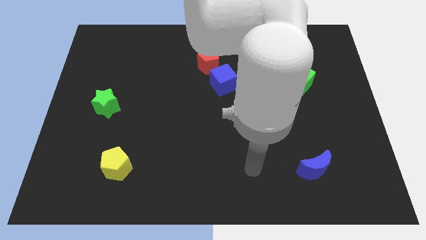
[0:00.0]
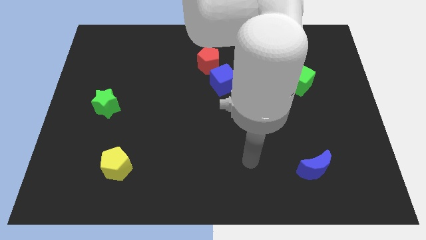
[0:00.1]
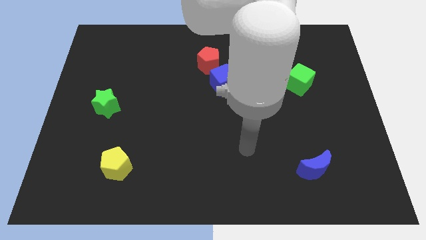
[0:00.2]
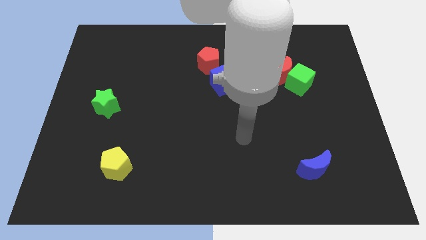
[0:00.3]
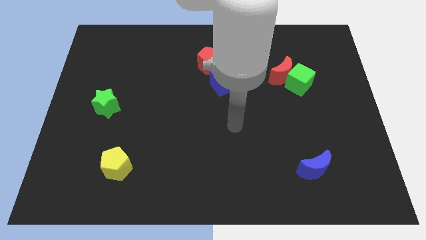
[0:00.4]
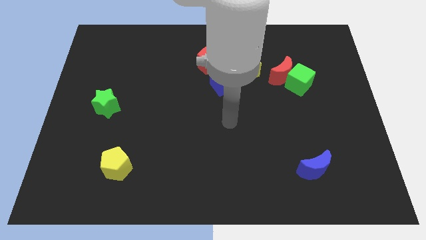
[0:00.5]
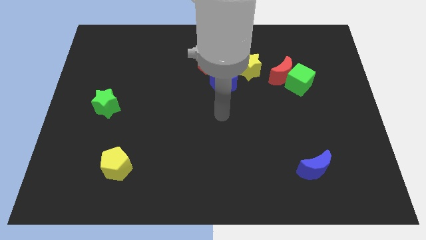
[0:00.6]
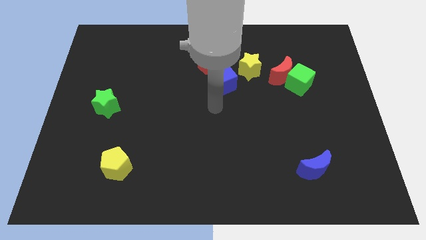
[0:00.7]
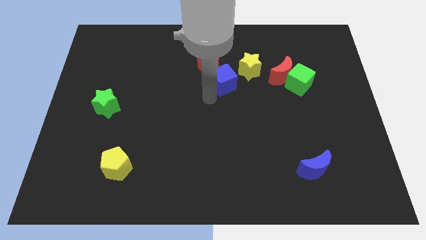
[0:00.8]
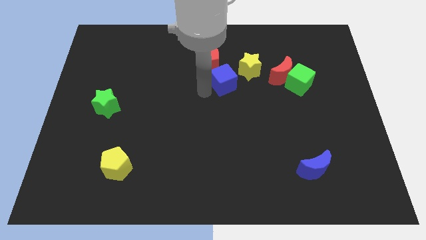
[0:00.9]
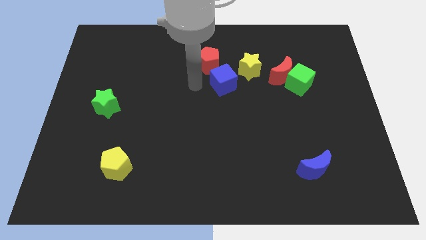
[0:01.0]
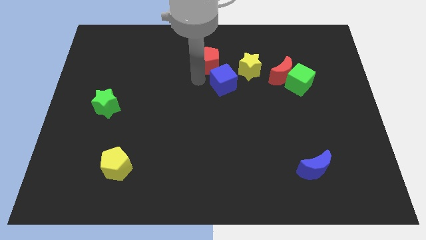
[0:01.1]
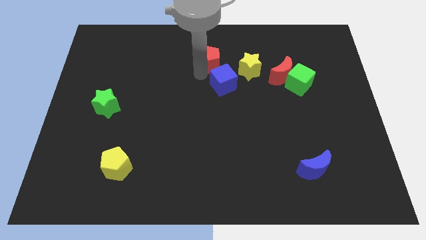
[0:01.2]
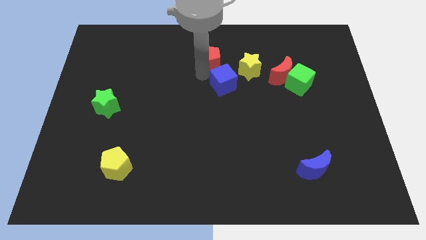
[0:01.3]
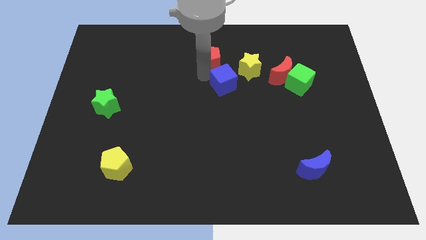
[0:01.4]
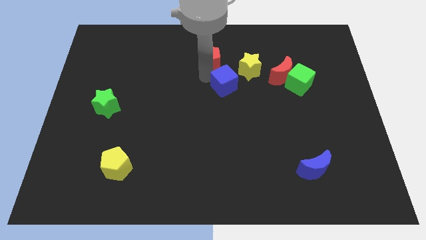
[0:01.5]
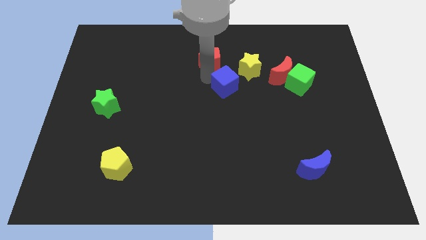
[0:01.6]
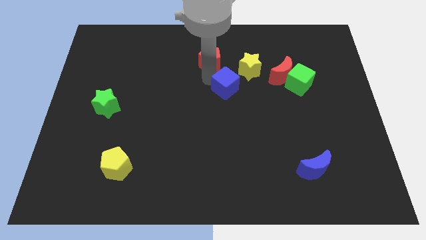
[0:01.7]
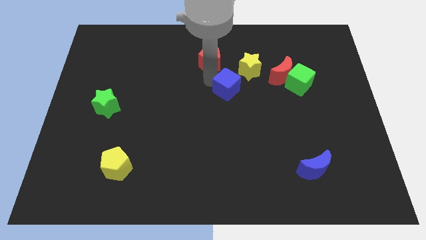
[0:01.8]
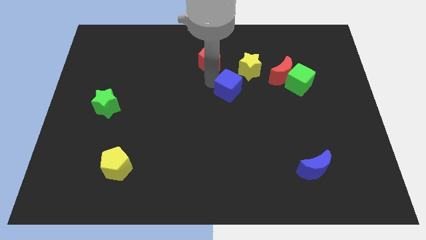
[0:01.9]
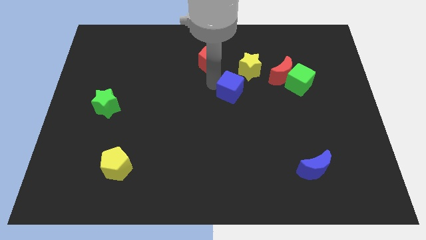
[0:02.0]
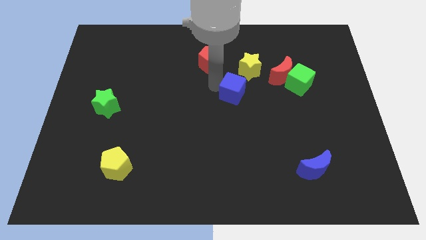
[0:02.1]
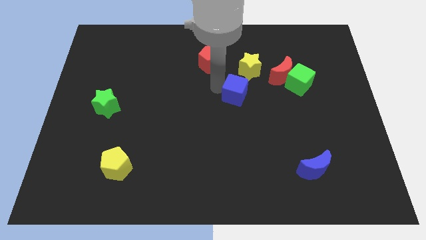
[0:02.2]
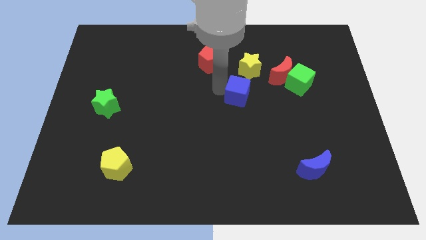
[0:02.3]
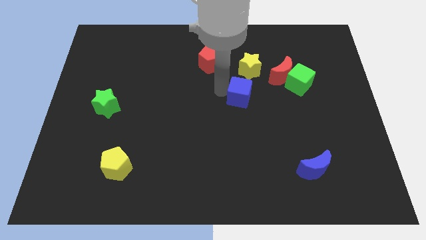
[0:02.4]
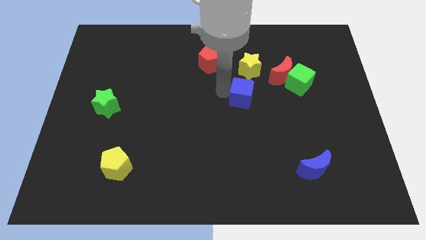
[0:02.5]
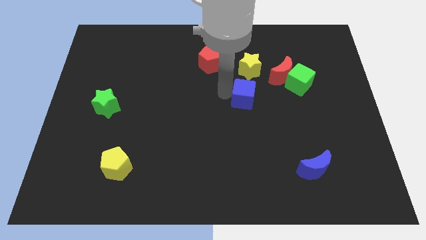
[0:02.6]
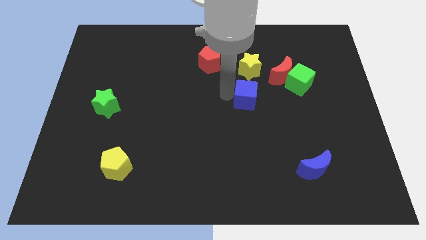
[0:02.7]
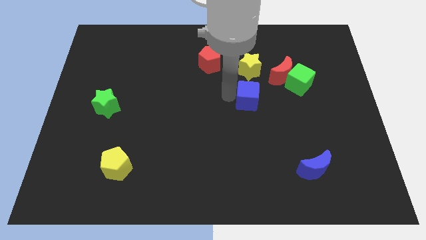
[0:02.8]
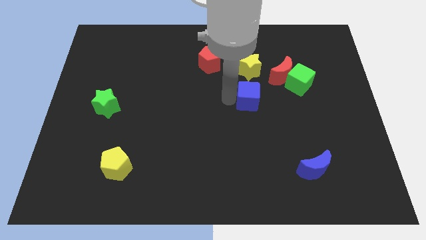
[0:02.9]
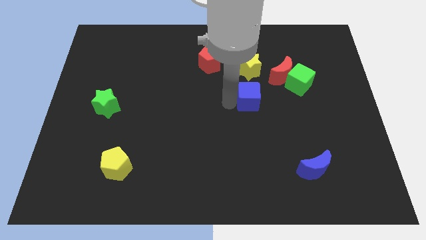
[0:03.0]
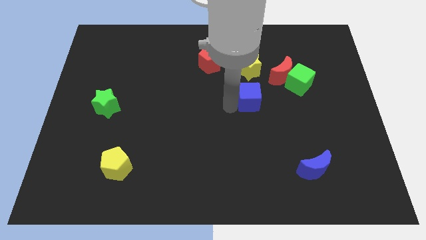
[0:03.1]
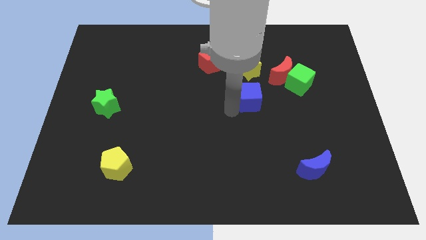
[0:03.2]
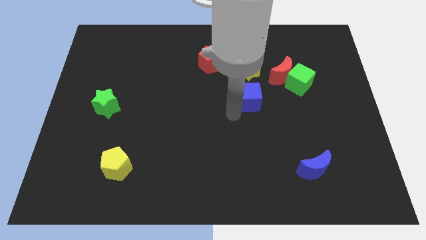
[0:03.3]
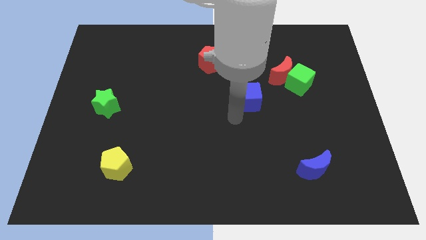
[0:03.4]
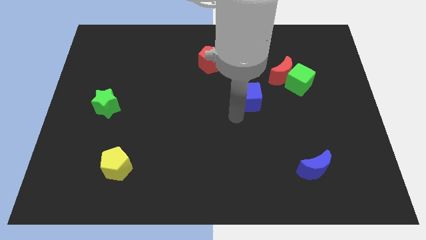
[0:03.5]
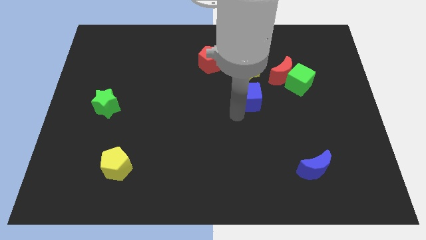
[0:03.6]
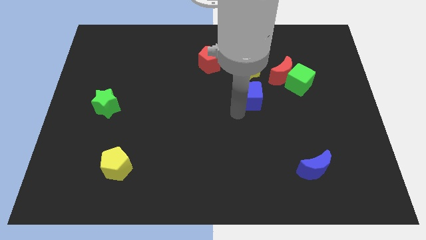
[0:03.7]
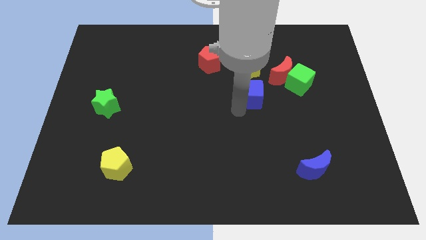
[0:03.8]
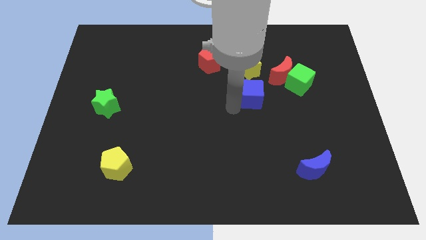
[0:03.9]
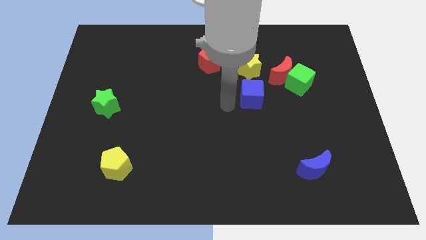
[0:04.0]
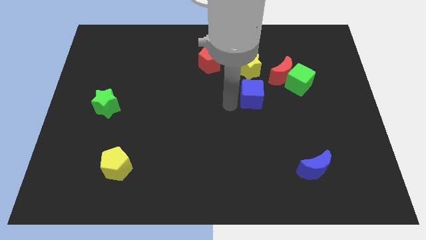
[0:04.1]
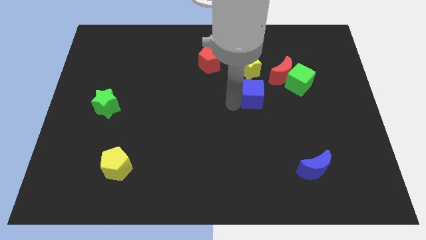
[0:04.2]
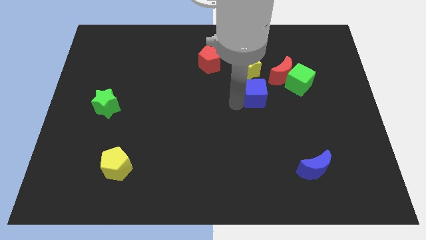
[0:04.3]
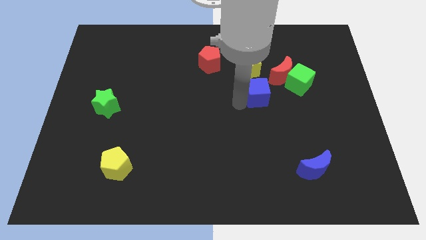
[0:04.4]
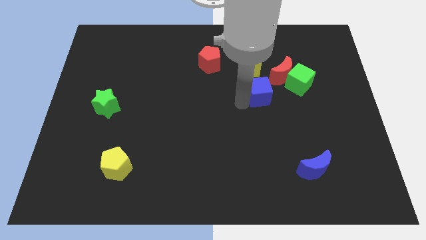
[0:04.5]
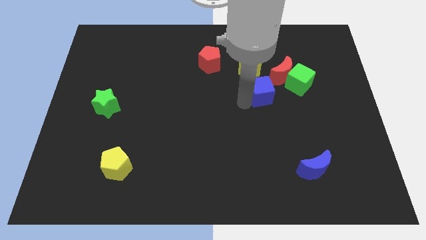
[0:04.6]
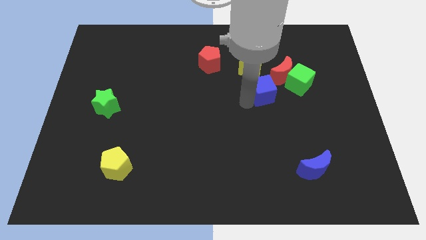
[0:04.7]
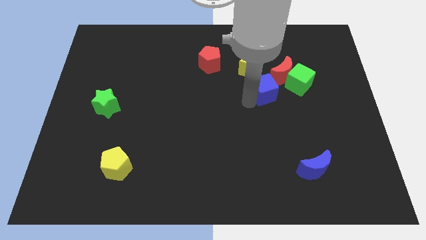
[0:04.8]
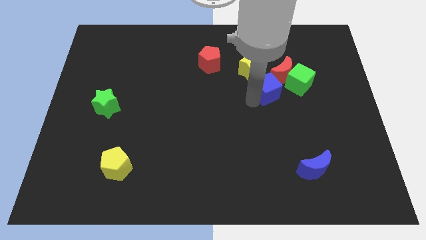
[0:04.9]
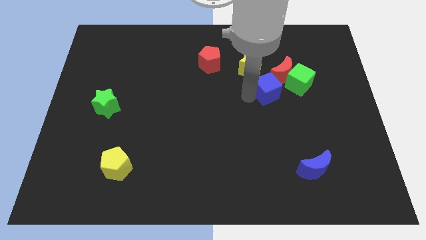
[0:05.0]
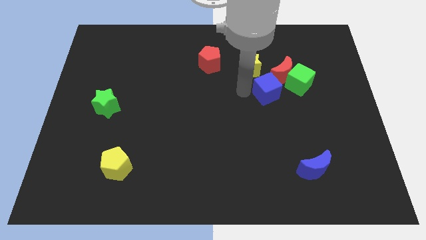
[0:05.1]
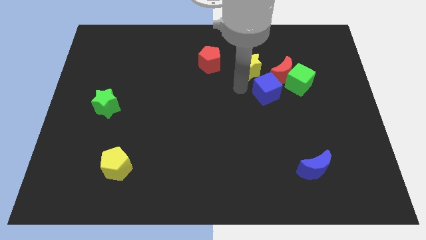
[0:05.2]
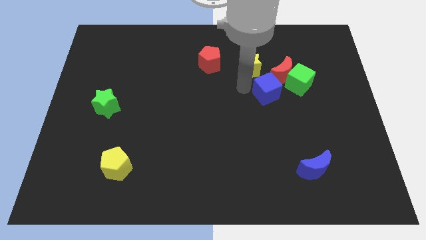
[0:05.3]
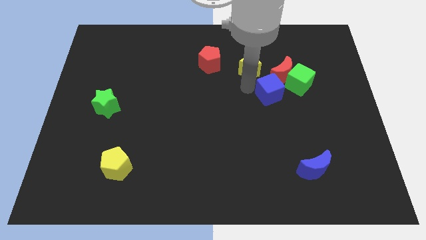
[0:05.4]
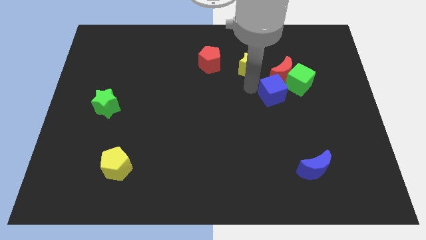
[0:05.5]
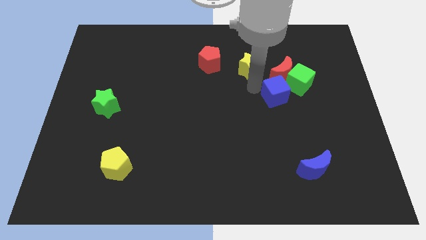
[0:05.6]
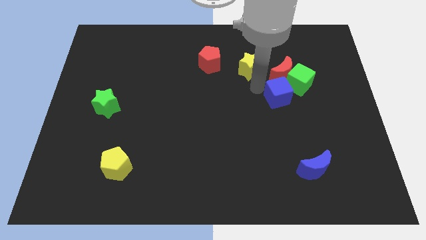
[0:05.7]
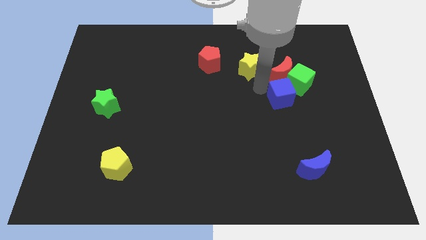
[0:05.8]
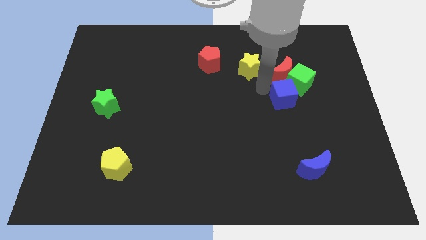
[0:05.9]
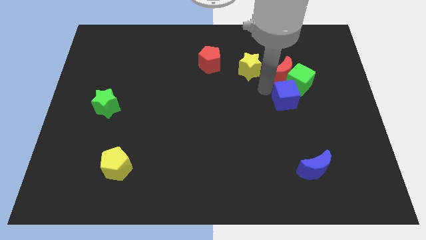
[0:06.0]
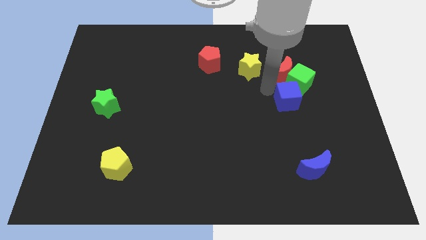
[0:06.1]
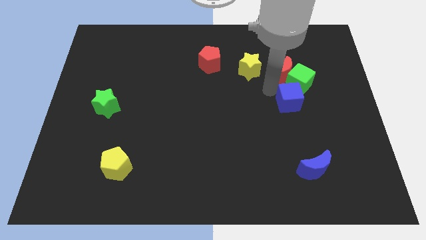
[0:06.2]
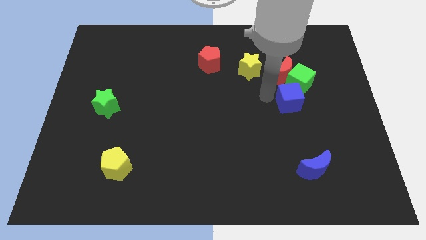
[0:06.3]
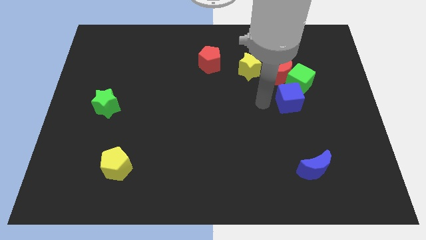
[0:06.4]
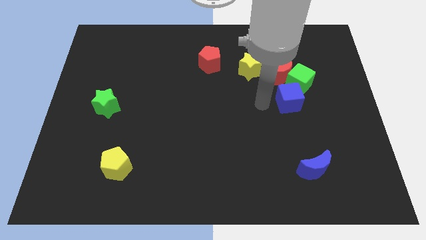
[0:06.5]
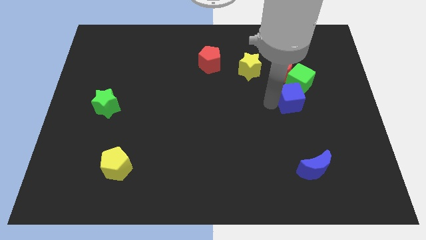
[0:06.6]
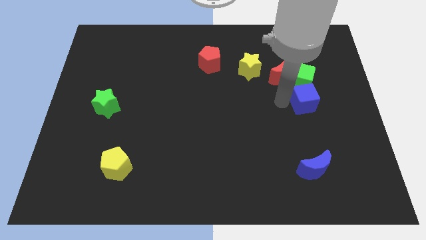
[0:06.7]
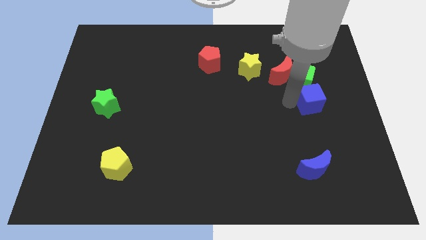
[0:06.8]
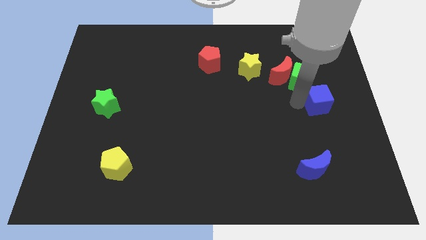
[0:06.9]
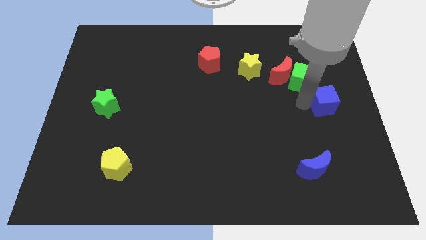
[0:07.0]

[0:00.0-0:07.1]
push the blue cube to the right side of the board

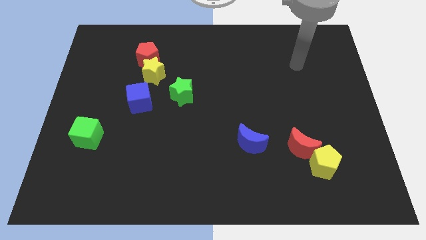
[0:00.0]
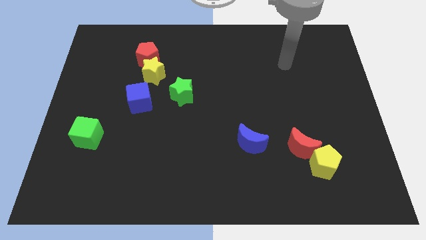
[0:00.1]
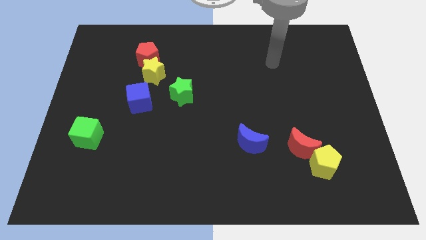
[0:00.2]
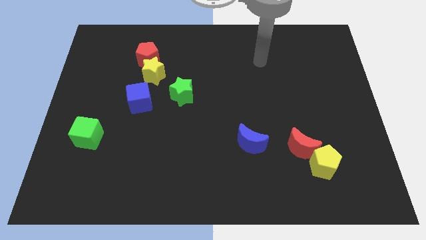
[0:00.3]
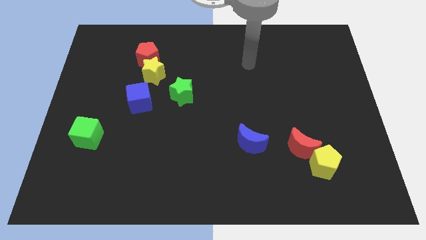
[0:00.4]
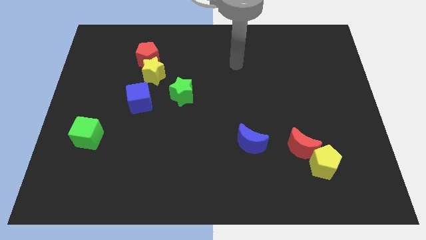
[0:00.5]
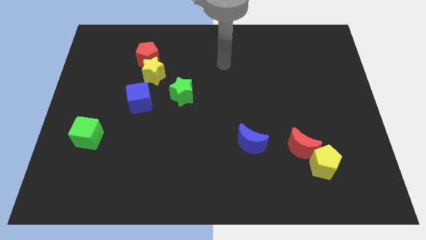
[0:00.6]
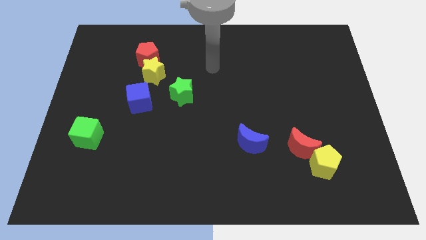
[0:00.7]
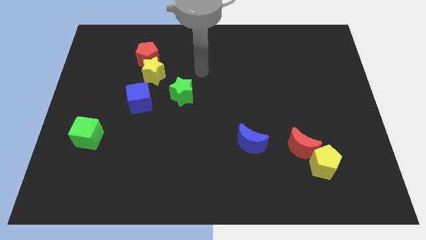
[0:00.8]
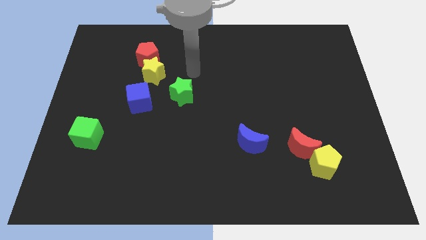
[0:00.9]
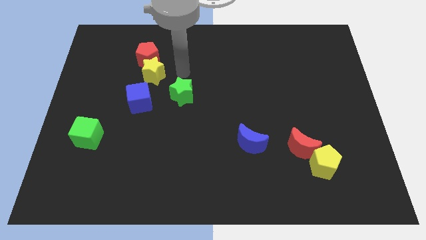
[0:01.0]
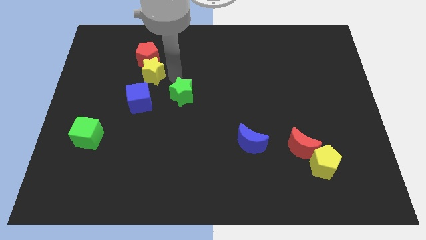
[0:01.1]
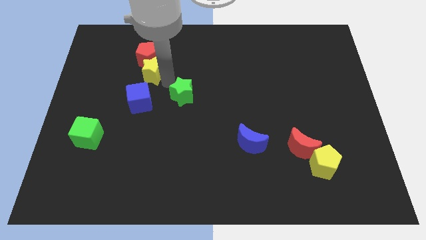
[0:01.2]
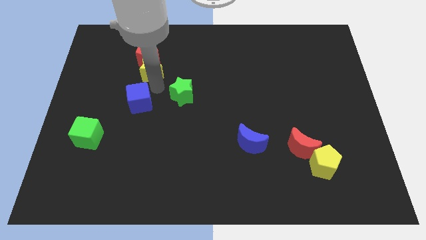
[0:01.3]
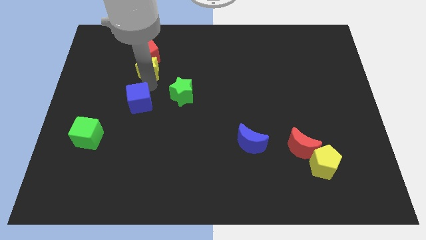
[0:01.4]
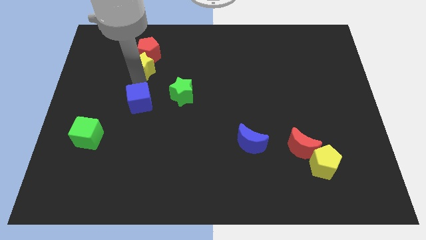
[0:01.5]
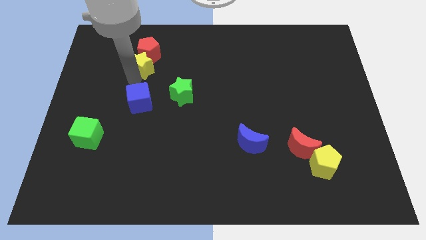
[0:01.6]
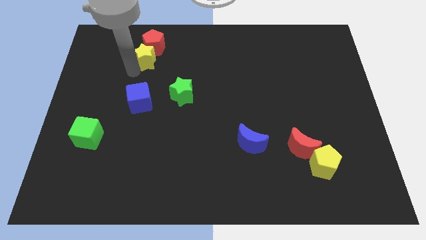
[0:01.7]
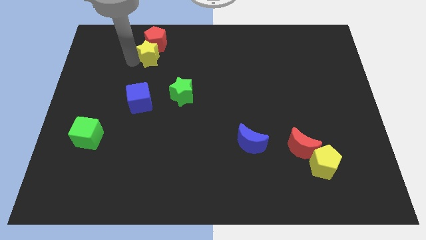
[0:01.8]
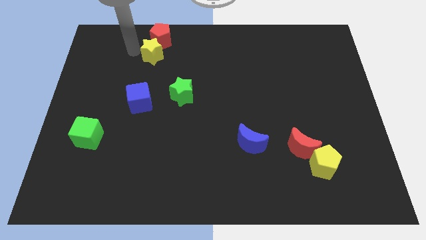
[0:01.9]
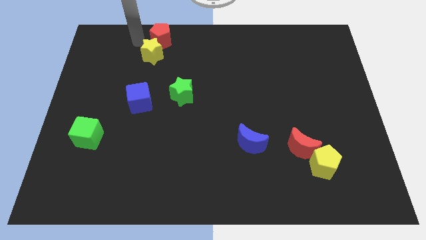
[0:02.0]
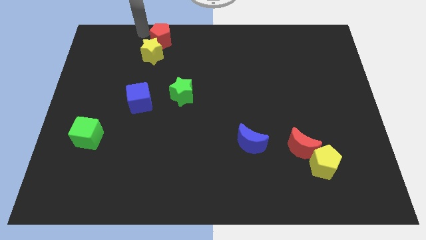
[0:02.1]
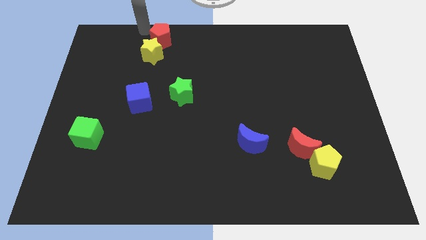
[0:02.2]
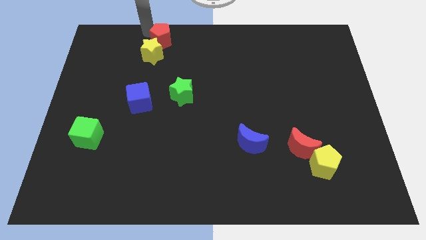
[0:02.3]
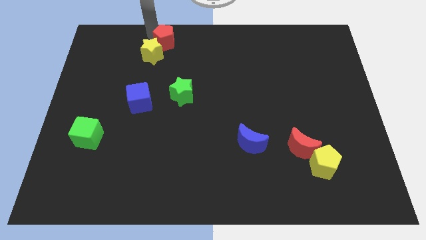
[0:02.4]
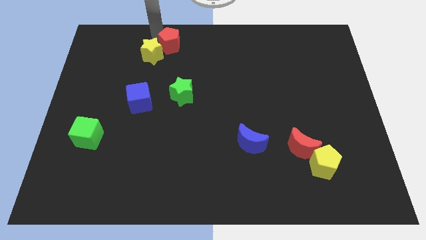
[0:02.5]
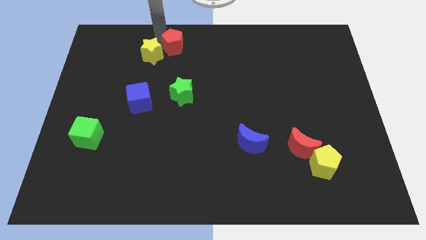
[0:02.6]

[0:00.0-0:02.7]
put the red pentagon to the towards your base
